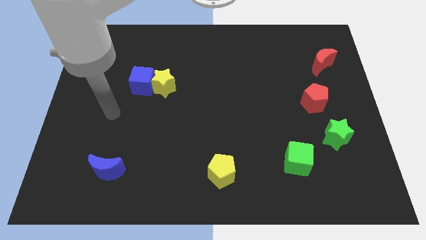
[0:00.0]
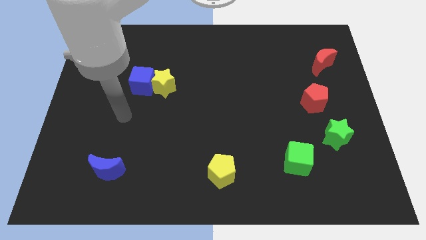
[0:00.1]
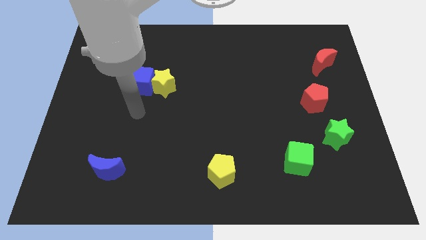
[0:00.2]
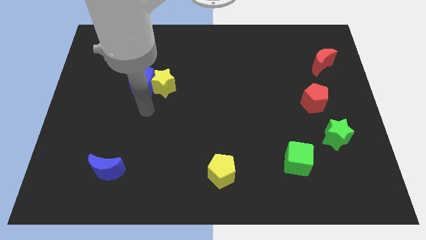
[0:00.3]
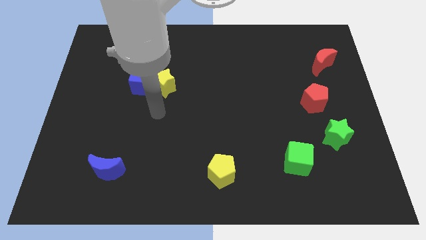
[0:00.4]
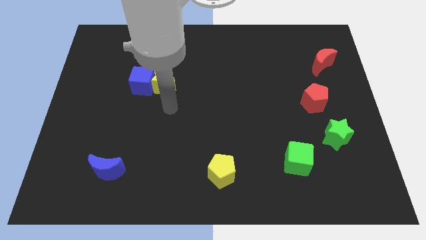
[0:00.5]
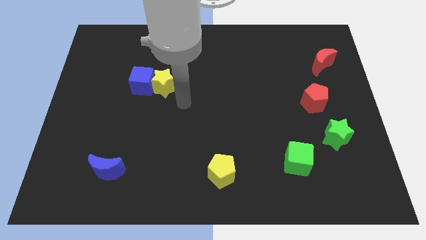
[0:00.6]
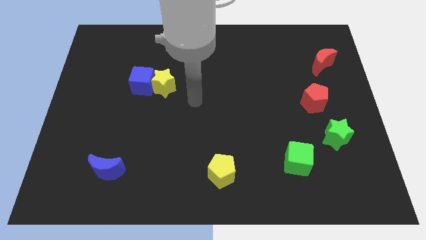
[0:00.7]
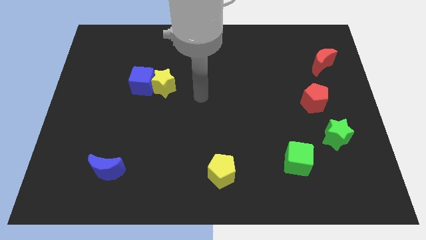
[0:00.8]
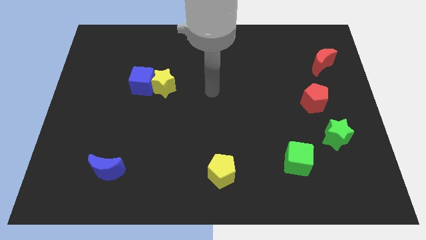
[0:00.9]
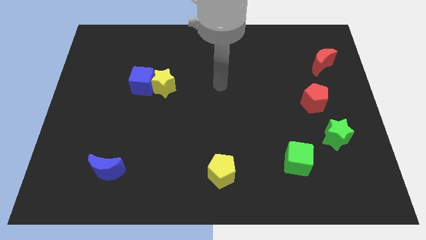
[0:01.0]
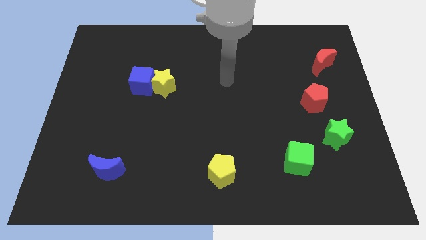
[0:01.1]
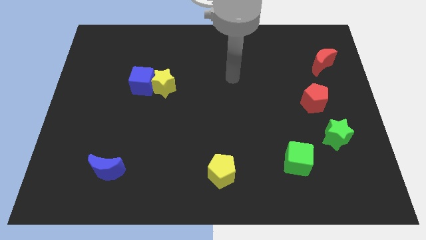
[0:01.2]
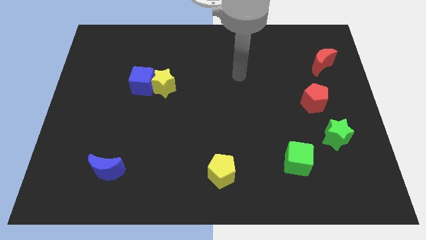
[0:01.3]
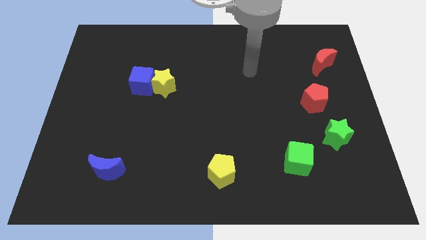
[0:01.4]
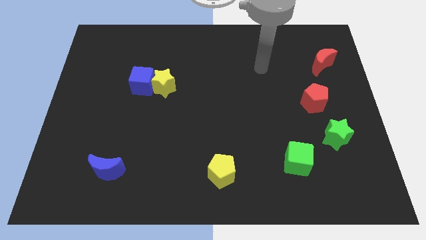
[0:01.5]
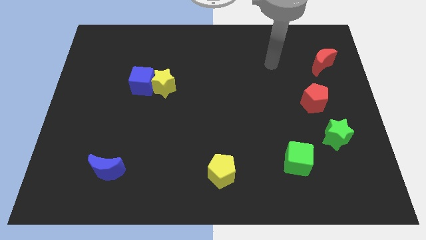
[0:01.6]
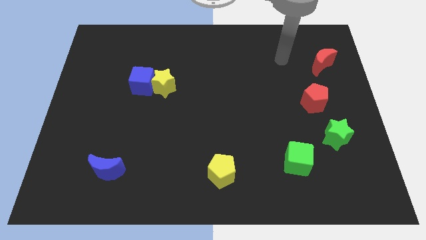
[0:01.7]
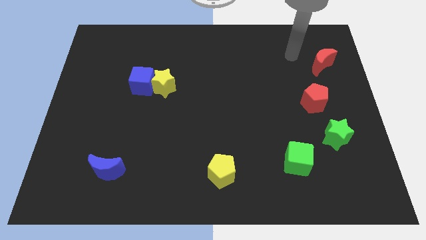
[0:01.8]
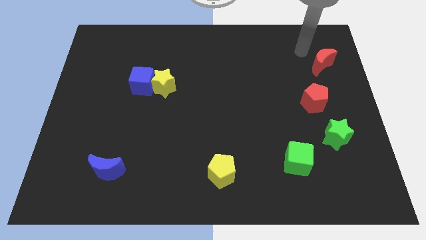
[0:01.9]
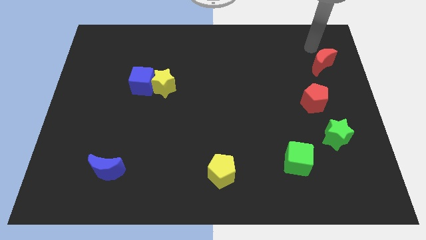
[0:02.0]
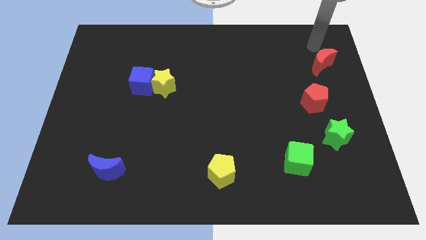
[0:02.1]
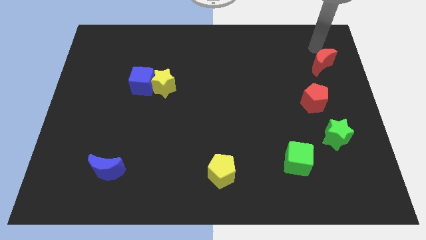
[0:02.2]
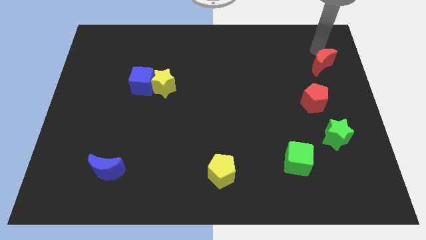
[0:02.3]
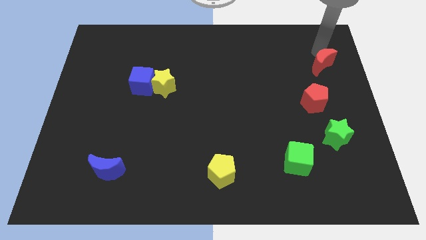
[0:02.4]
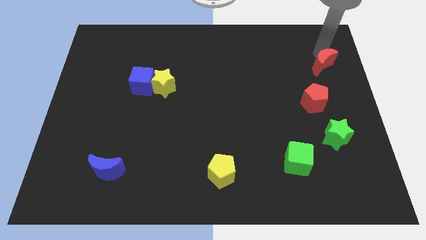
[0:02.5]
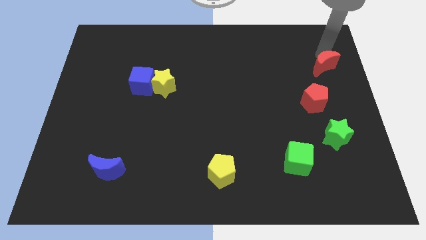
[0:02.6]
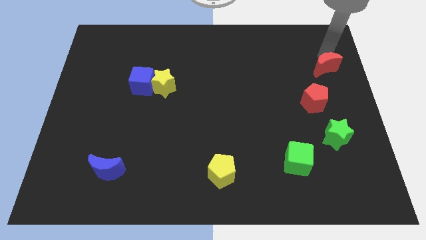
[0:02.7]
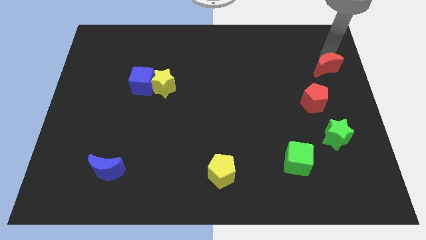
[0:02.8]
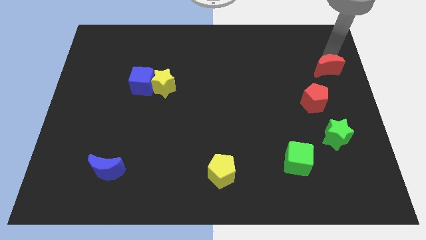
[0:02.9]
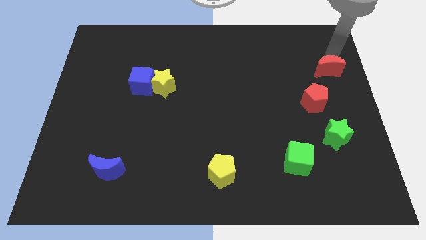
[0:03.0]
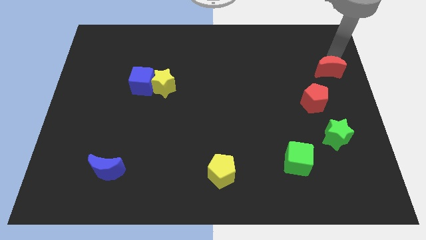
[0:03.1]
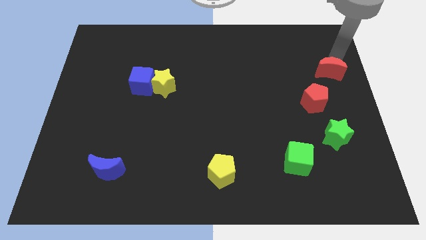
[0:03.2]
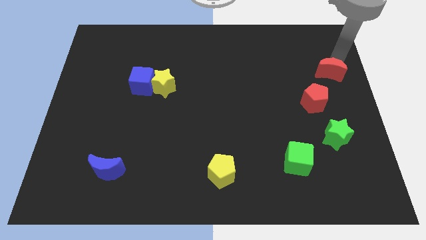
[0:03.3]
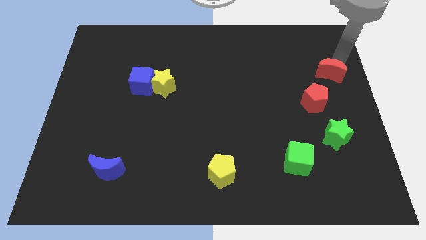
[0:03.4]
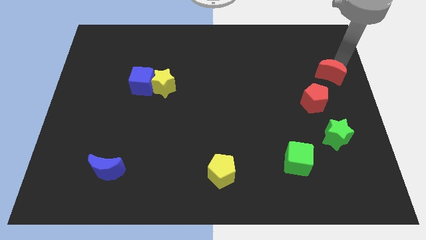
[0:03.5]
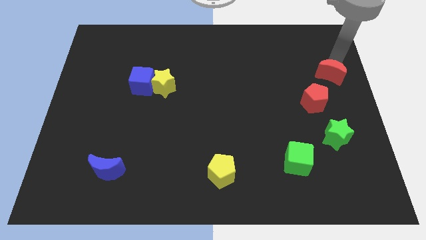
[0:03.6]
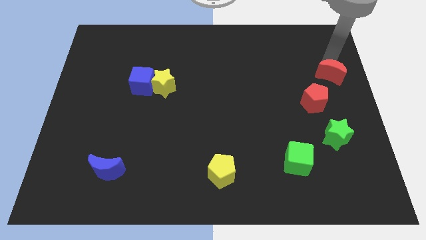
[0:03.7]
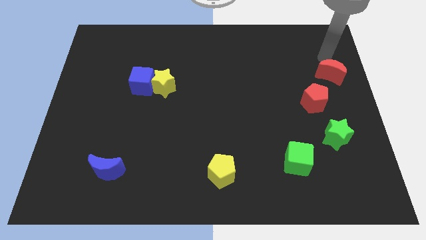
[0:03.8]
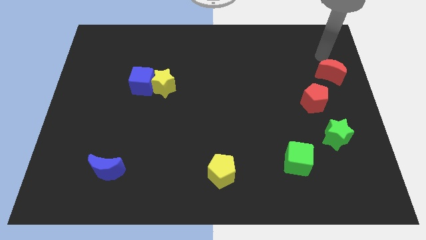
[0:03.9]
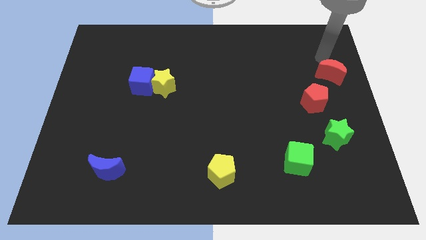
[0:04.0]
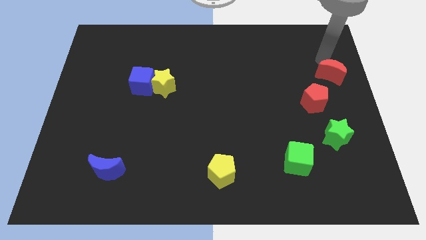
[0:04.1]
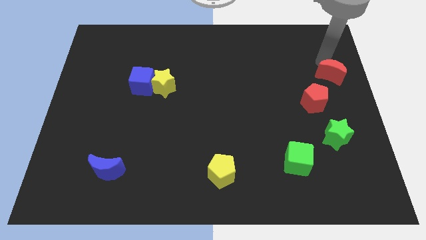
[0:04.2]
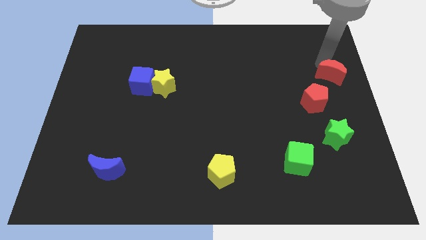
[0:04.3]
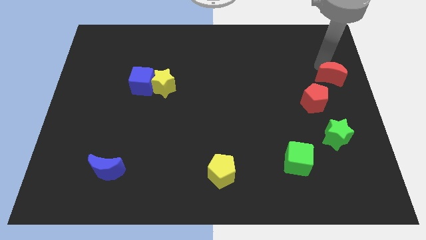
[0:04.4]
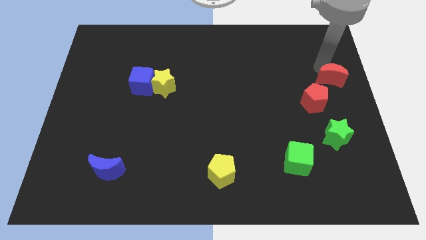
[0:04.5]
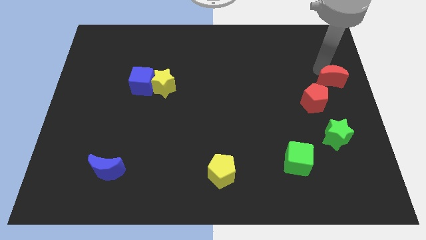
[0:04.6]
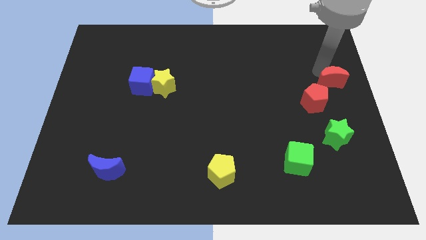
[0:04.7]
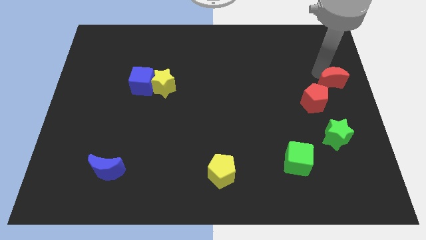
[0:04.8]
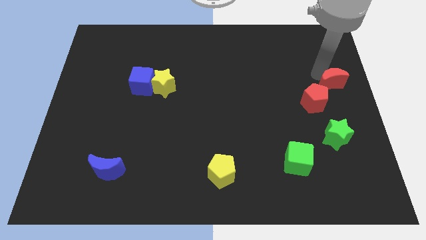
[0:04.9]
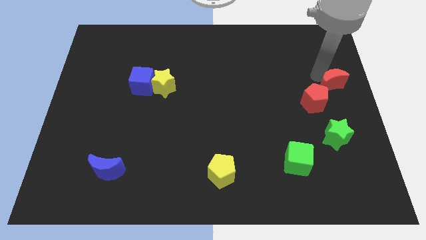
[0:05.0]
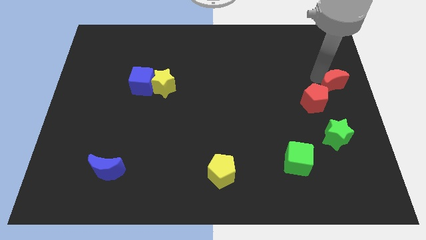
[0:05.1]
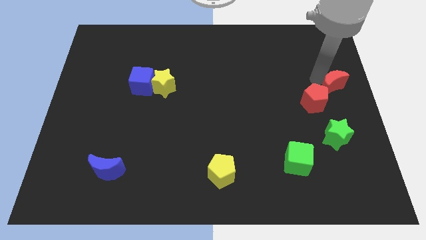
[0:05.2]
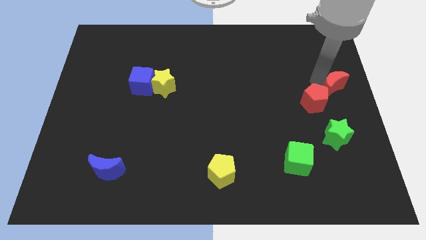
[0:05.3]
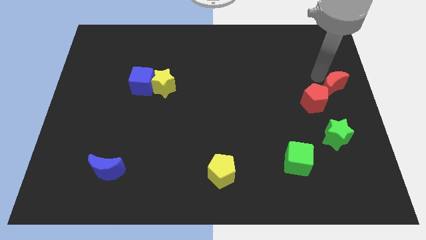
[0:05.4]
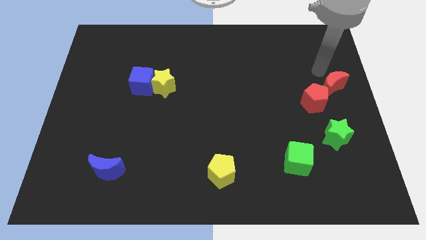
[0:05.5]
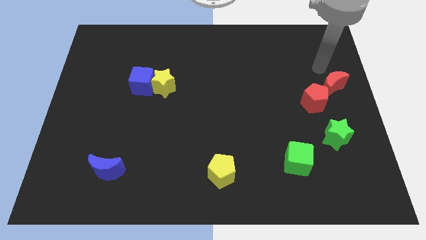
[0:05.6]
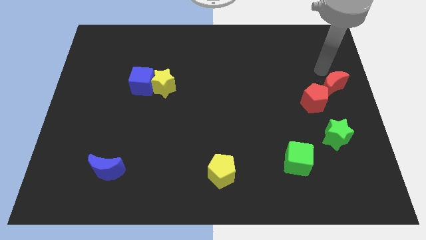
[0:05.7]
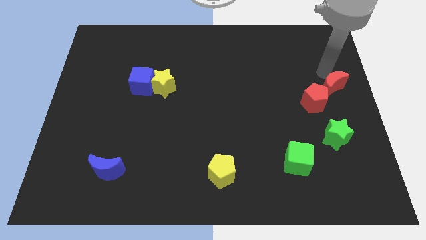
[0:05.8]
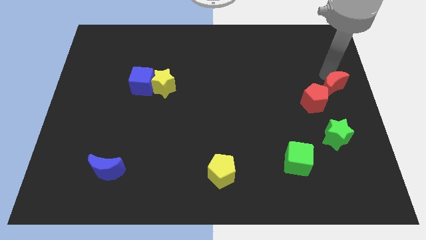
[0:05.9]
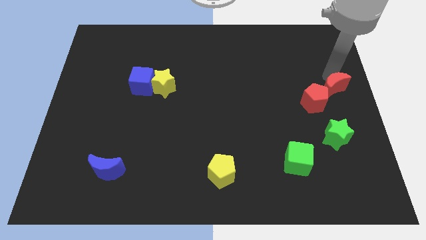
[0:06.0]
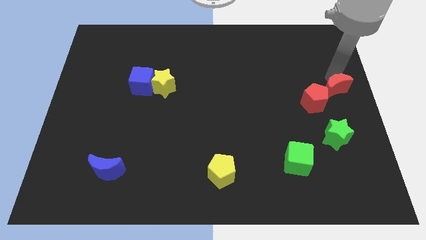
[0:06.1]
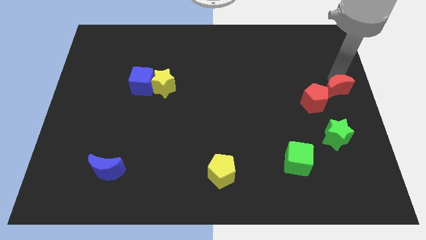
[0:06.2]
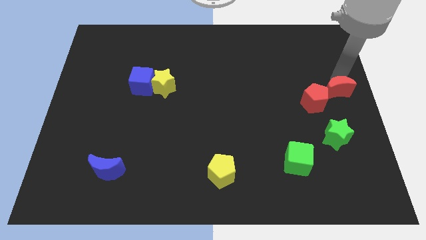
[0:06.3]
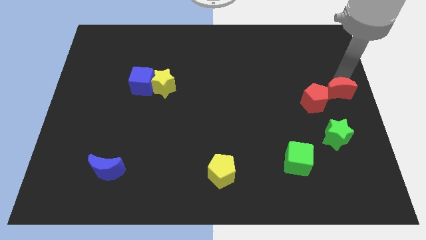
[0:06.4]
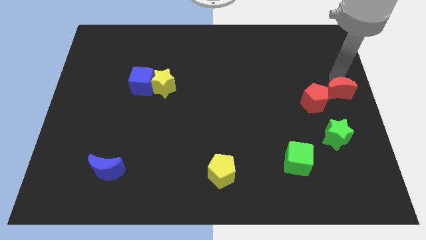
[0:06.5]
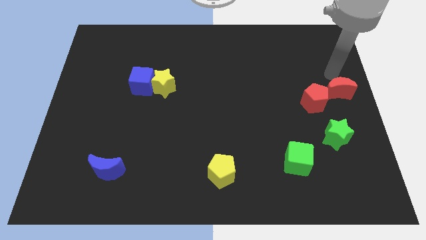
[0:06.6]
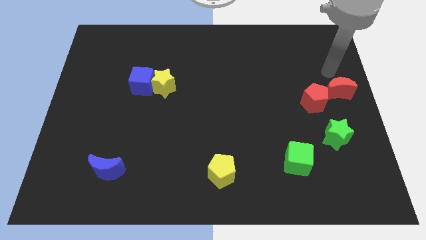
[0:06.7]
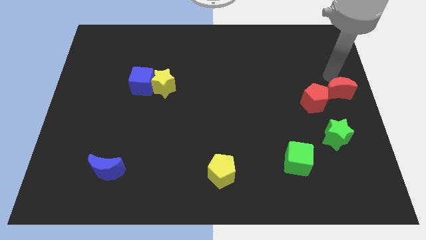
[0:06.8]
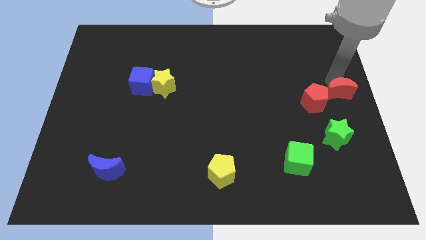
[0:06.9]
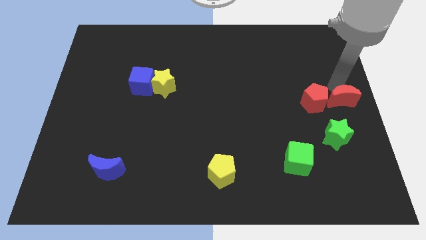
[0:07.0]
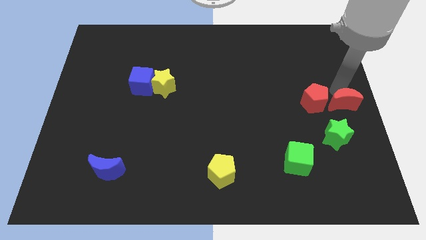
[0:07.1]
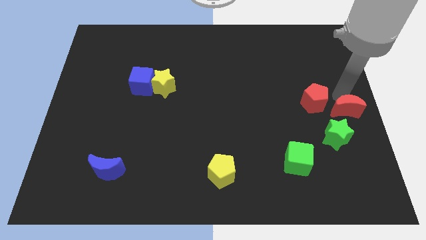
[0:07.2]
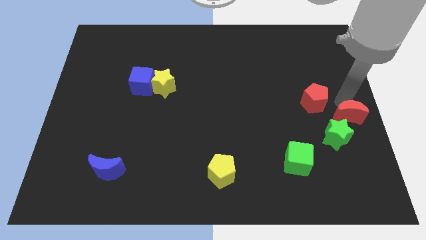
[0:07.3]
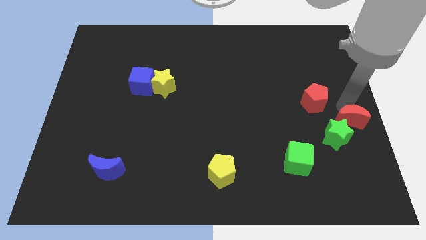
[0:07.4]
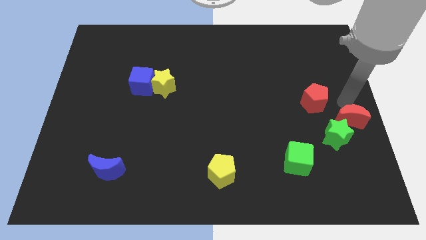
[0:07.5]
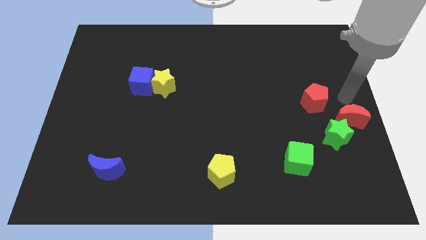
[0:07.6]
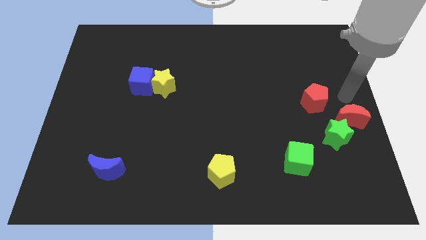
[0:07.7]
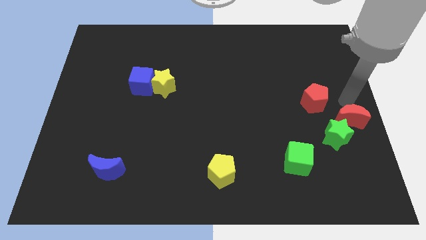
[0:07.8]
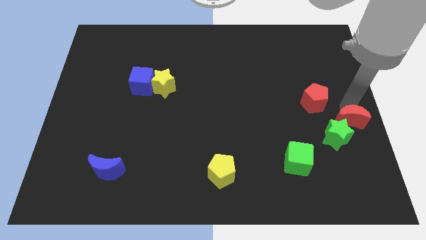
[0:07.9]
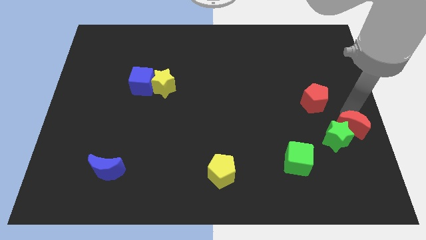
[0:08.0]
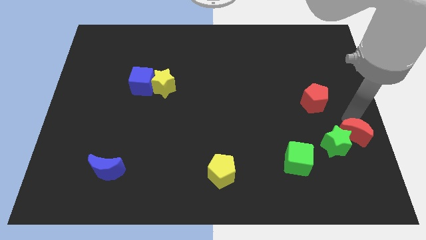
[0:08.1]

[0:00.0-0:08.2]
move the red moon down
